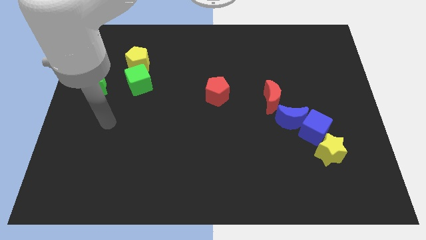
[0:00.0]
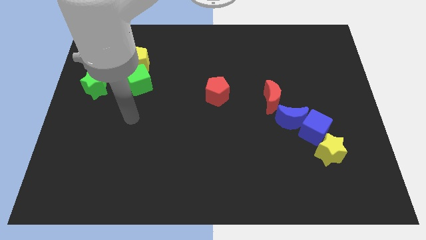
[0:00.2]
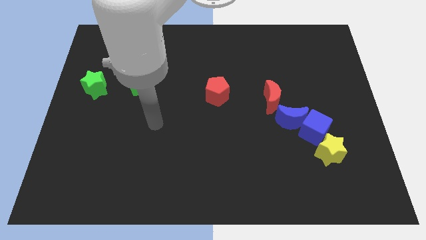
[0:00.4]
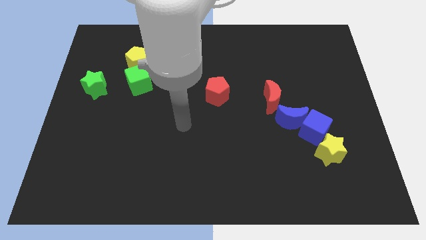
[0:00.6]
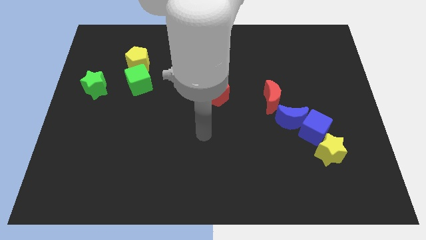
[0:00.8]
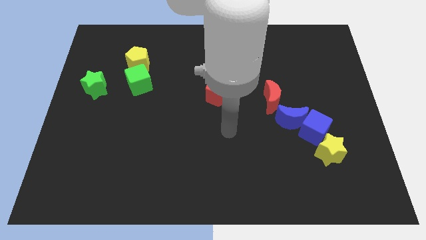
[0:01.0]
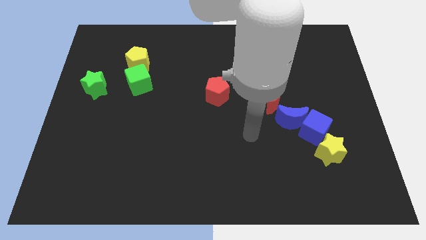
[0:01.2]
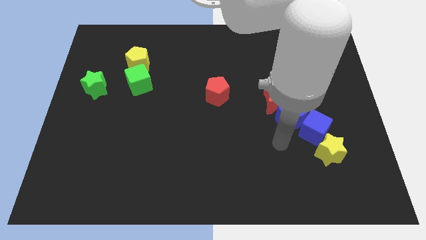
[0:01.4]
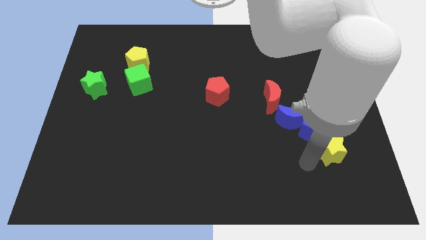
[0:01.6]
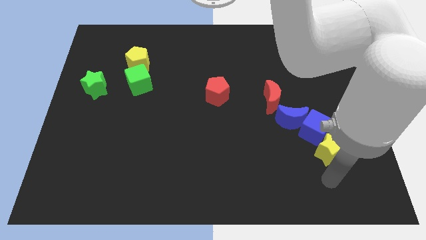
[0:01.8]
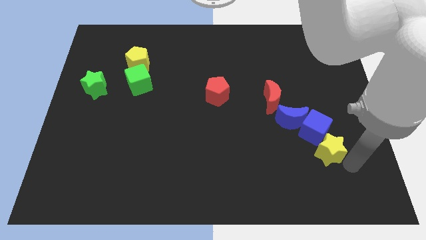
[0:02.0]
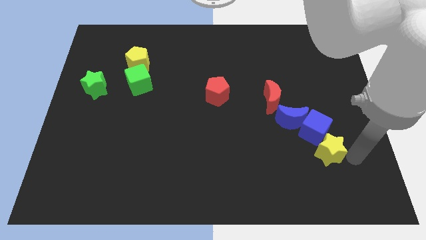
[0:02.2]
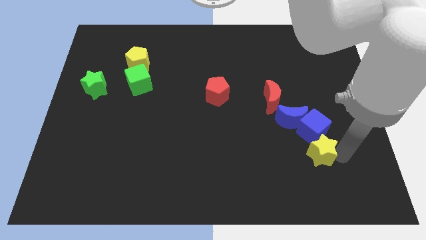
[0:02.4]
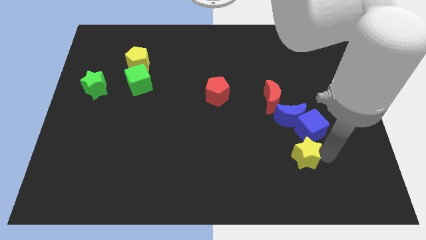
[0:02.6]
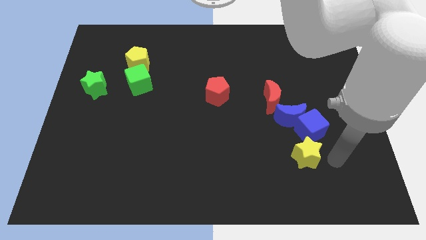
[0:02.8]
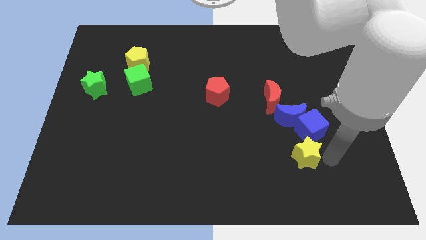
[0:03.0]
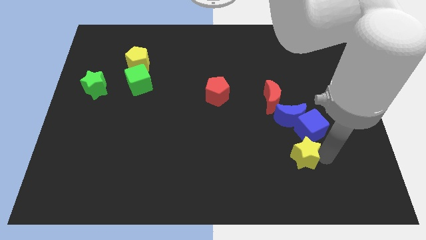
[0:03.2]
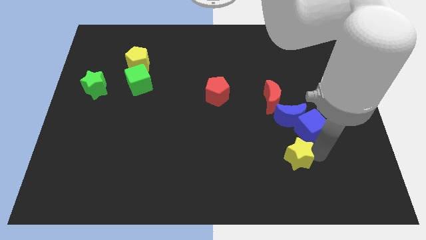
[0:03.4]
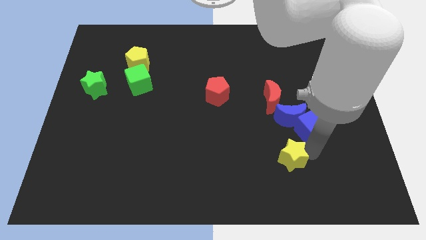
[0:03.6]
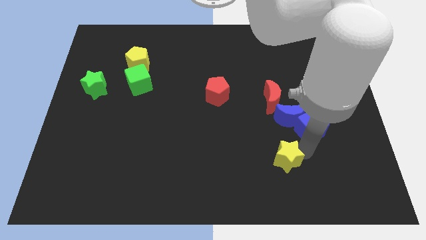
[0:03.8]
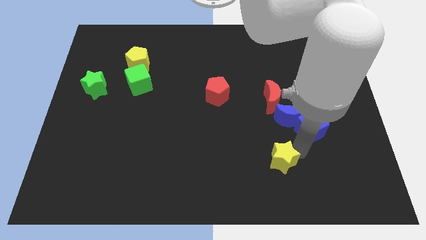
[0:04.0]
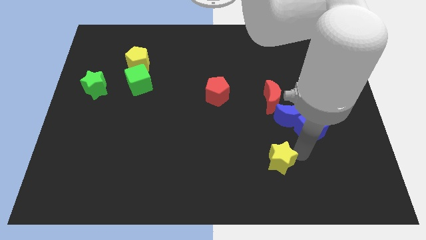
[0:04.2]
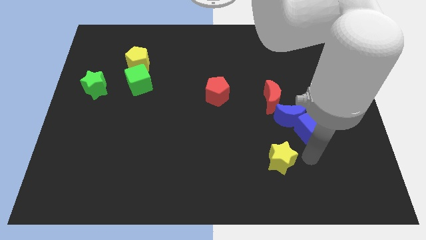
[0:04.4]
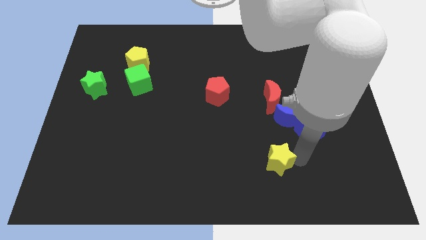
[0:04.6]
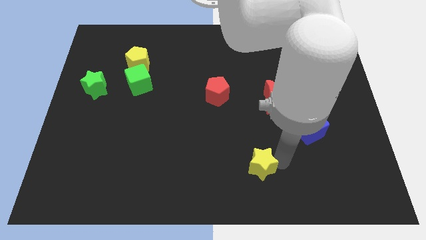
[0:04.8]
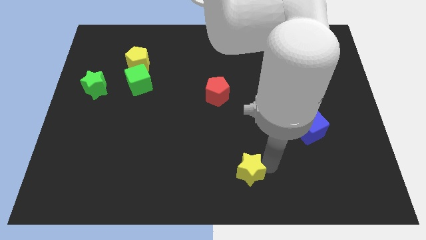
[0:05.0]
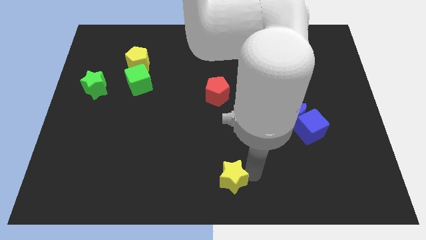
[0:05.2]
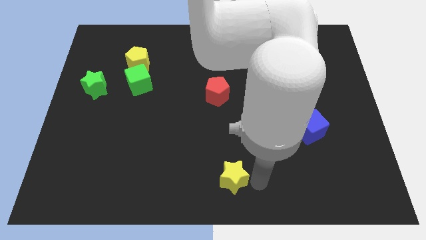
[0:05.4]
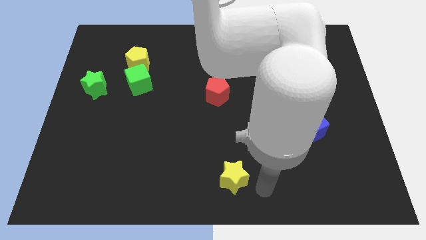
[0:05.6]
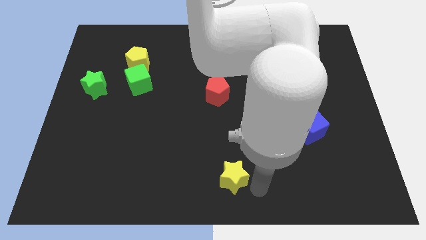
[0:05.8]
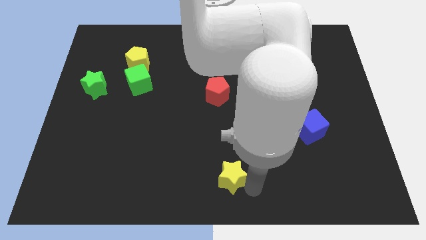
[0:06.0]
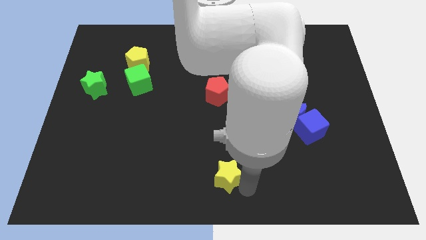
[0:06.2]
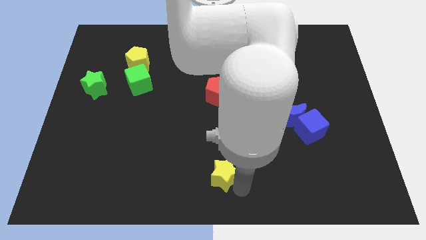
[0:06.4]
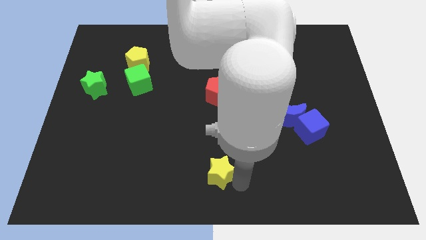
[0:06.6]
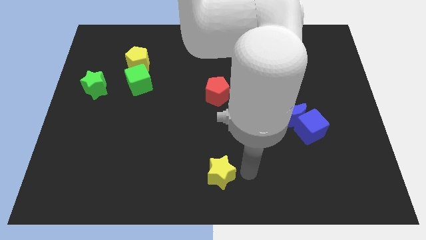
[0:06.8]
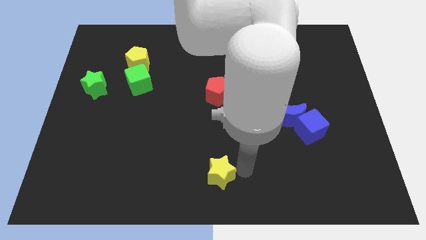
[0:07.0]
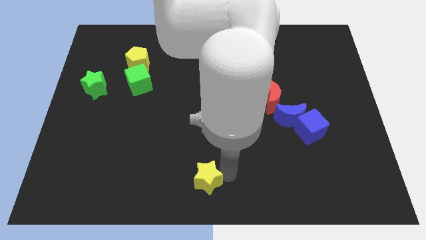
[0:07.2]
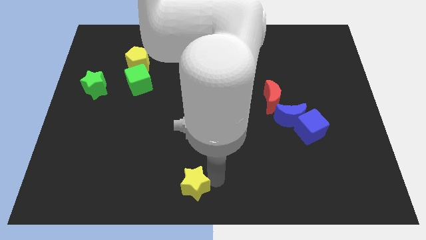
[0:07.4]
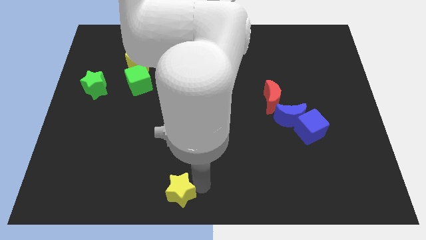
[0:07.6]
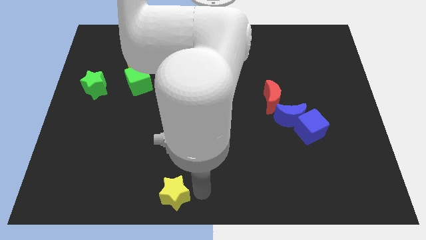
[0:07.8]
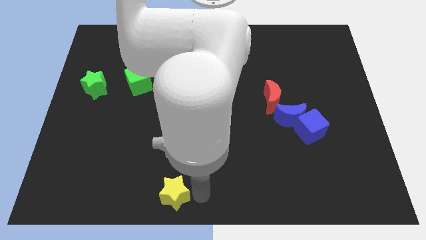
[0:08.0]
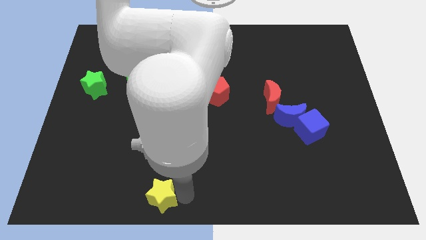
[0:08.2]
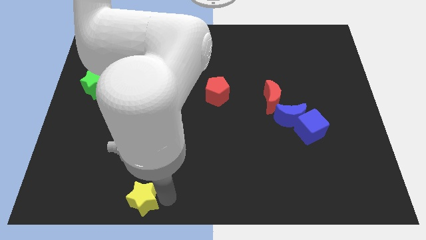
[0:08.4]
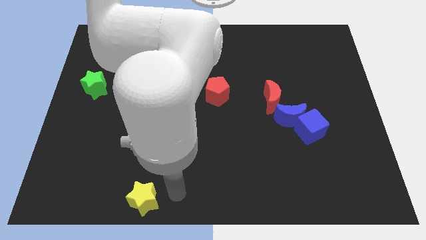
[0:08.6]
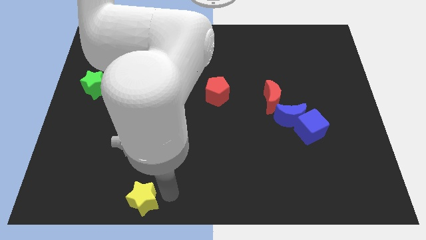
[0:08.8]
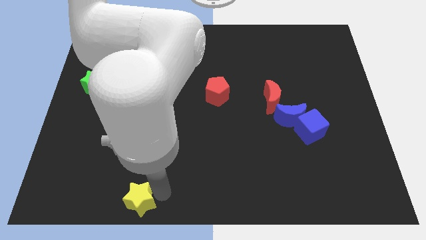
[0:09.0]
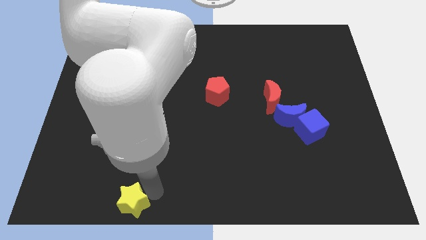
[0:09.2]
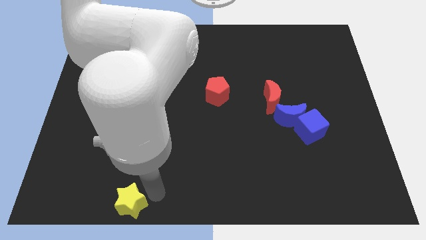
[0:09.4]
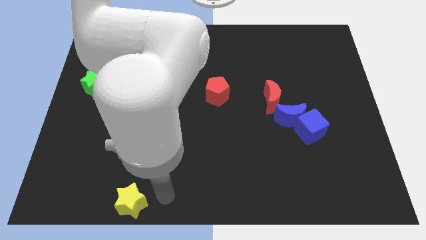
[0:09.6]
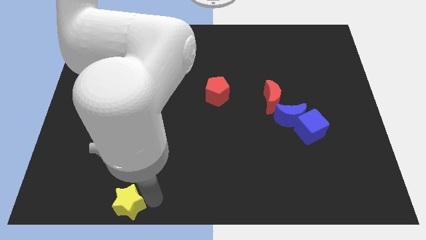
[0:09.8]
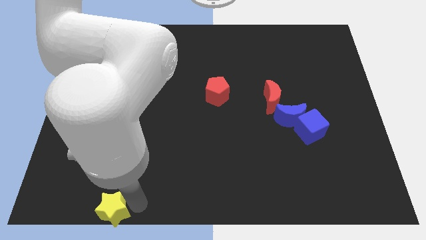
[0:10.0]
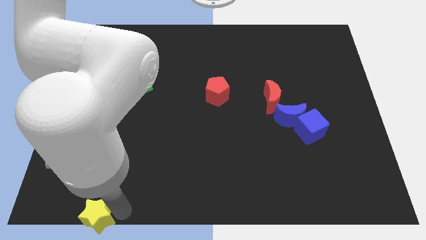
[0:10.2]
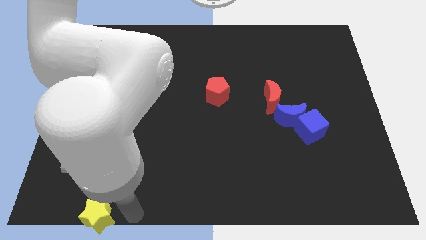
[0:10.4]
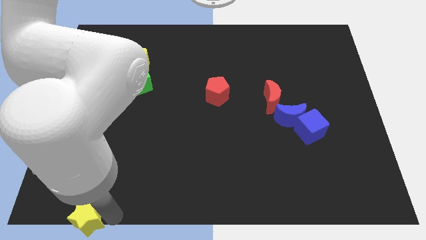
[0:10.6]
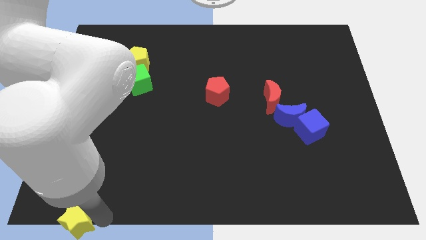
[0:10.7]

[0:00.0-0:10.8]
slide the yellow star to the lower left corner

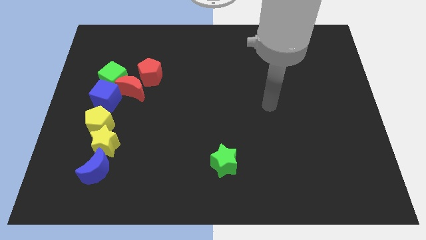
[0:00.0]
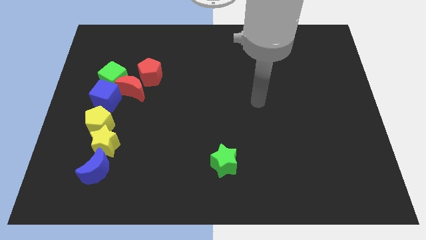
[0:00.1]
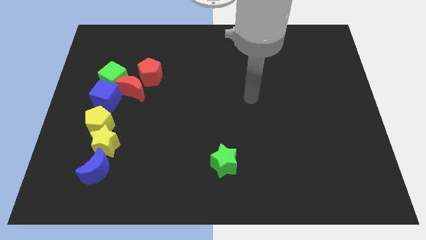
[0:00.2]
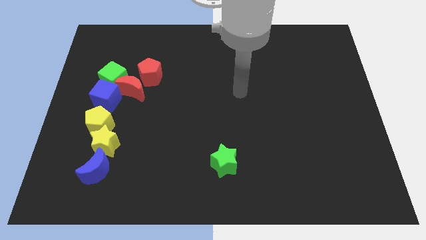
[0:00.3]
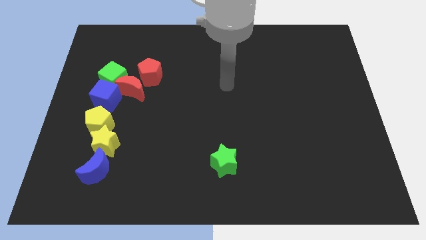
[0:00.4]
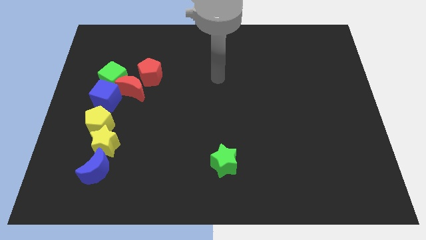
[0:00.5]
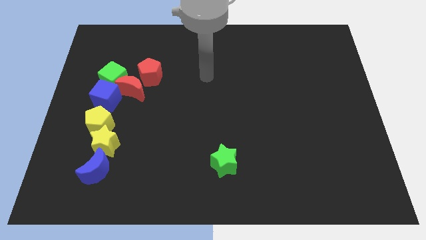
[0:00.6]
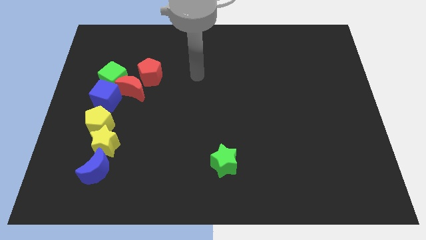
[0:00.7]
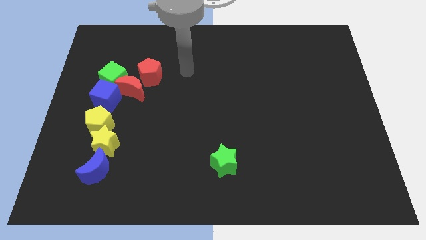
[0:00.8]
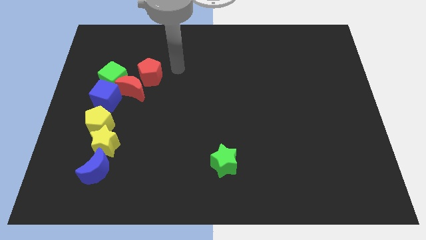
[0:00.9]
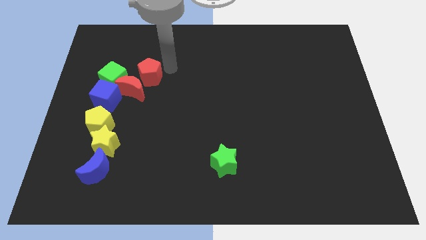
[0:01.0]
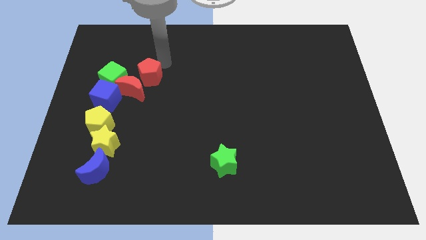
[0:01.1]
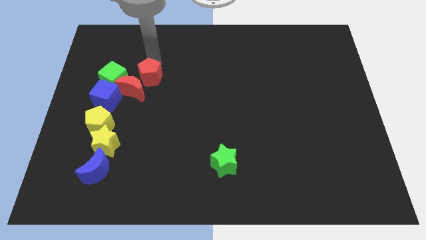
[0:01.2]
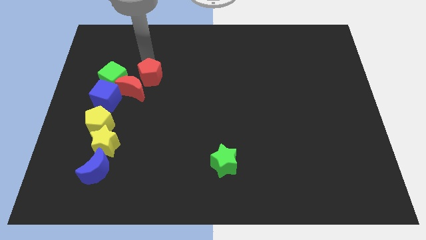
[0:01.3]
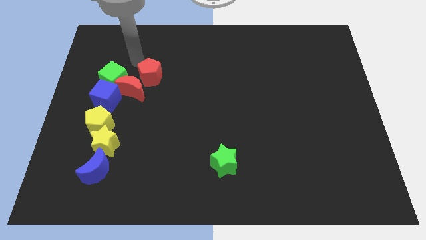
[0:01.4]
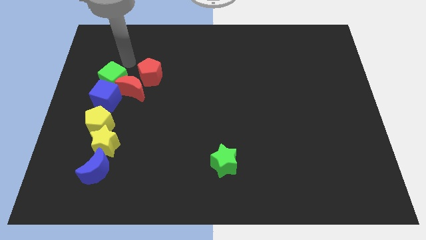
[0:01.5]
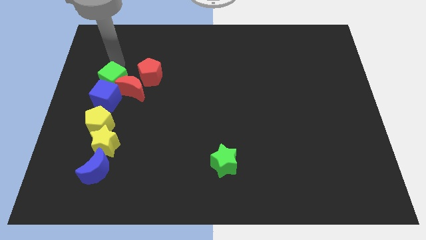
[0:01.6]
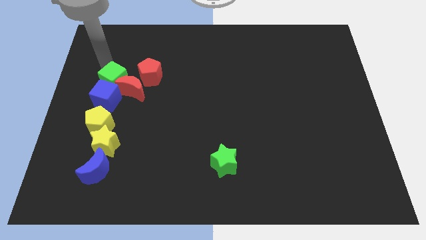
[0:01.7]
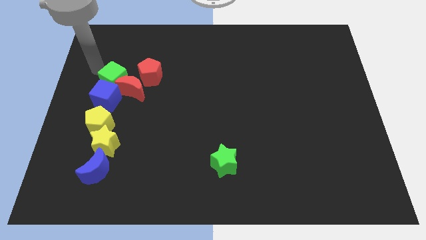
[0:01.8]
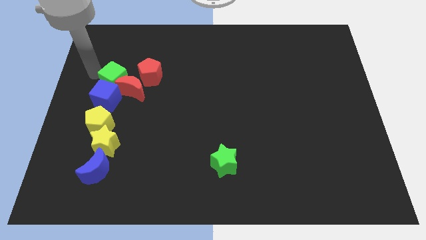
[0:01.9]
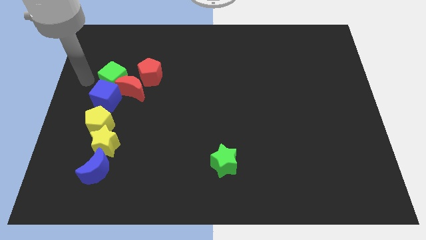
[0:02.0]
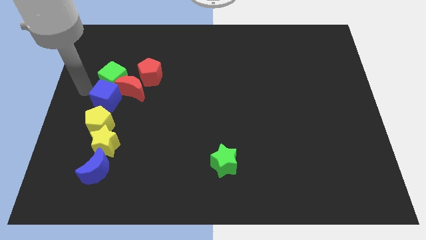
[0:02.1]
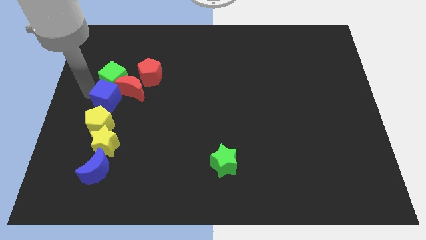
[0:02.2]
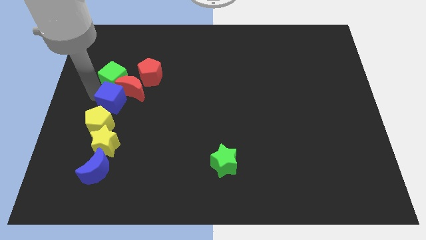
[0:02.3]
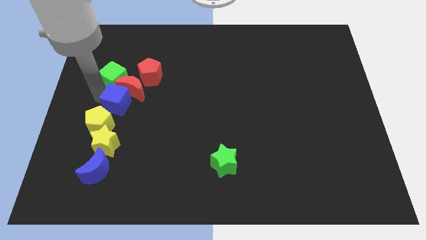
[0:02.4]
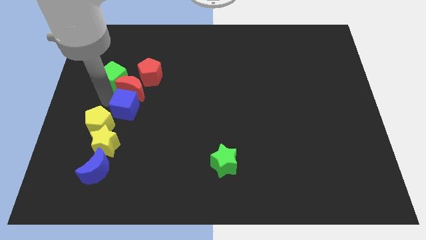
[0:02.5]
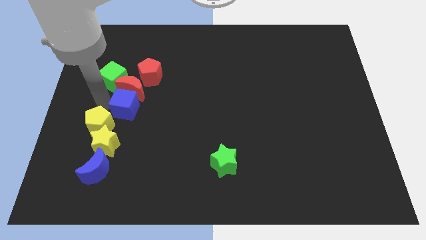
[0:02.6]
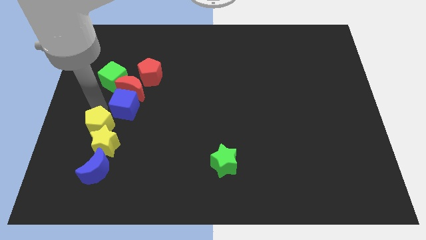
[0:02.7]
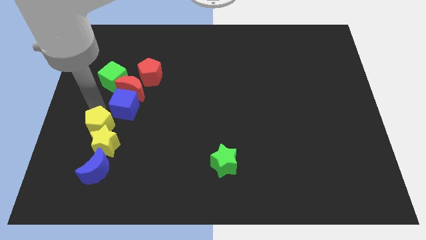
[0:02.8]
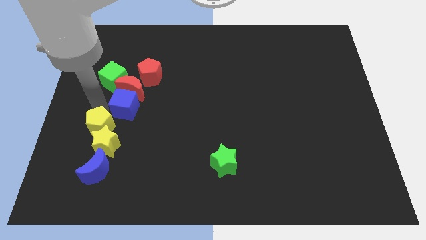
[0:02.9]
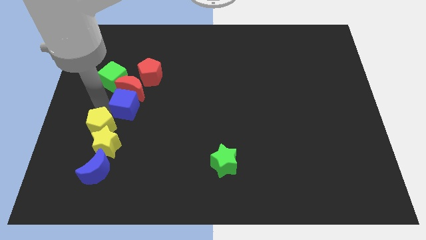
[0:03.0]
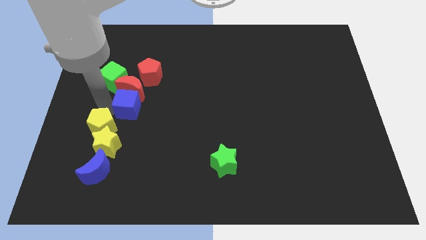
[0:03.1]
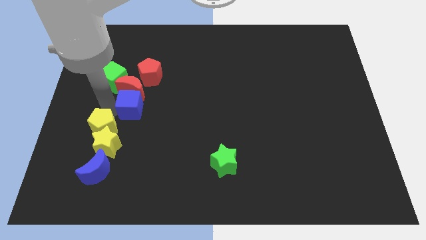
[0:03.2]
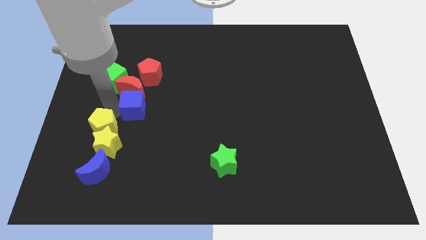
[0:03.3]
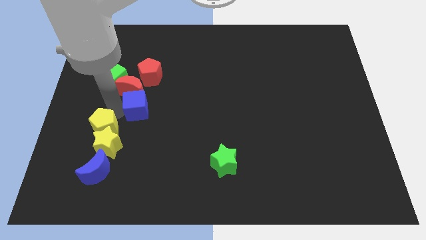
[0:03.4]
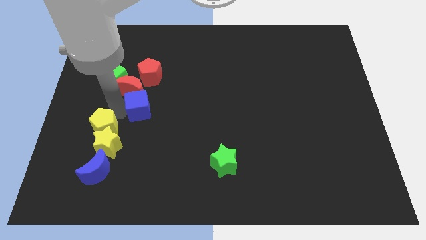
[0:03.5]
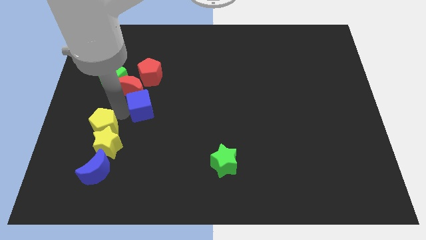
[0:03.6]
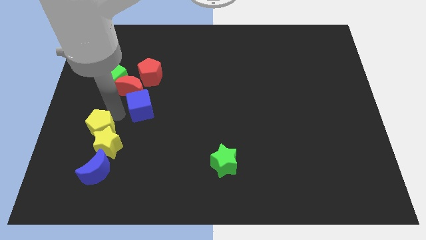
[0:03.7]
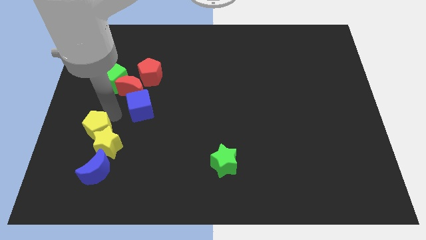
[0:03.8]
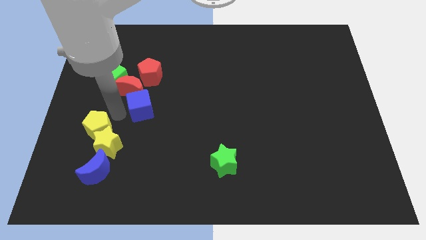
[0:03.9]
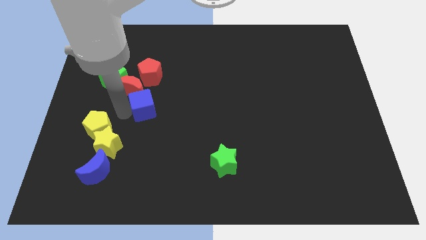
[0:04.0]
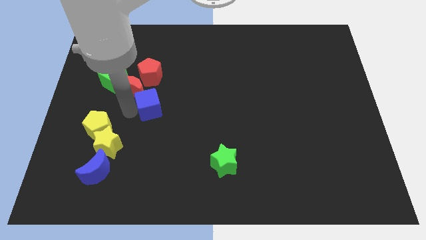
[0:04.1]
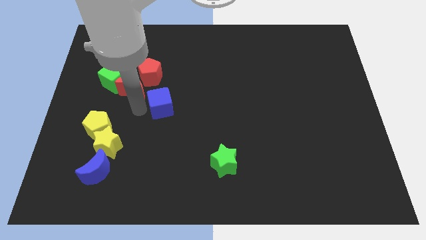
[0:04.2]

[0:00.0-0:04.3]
push the blue cube to the center of the board
